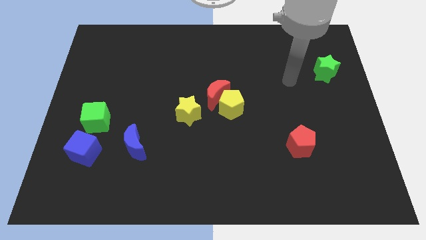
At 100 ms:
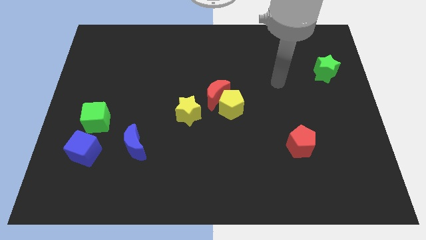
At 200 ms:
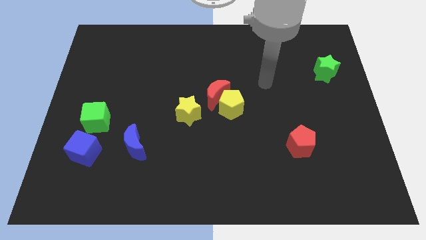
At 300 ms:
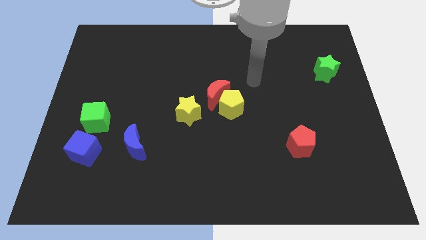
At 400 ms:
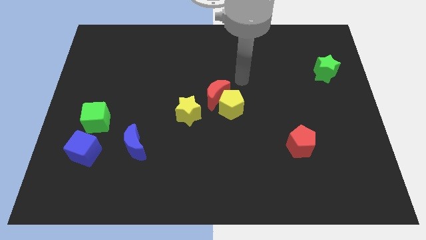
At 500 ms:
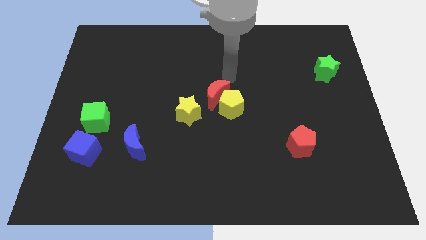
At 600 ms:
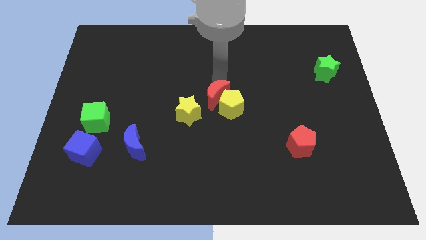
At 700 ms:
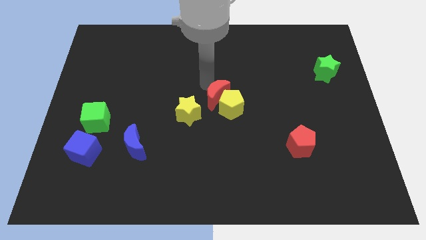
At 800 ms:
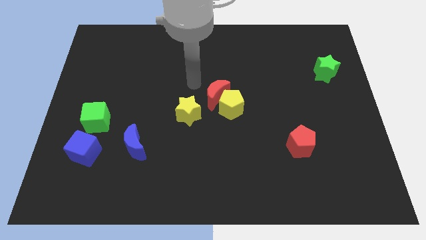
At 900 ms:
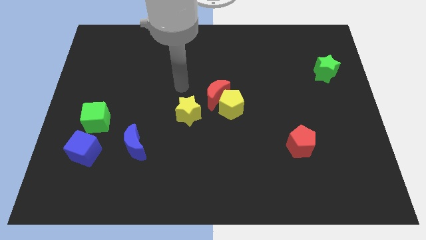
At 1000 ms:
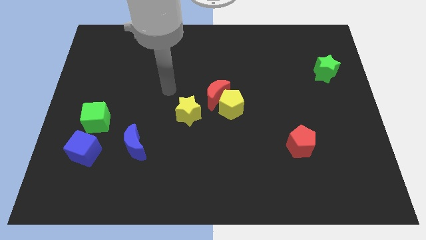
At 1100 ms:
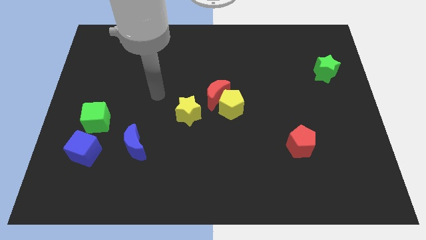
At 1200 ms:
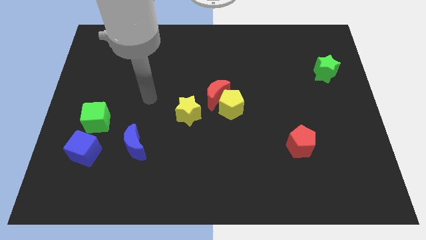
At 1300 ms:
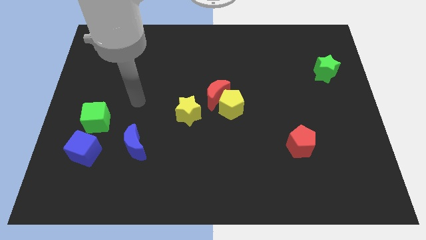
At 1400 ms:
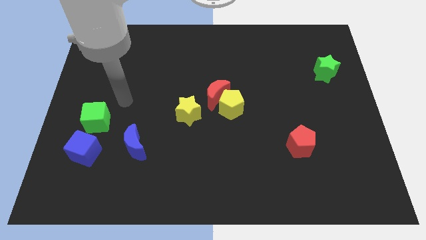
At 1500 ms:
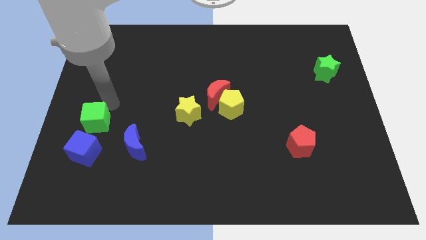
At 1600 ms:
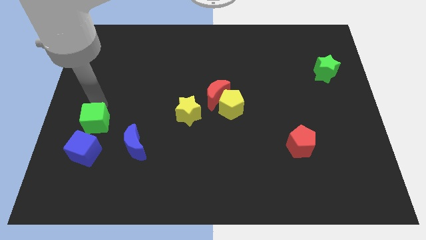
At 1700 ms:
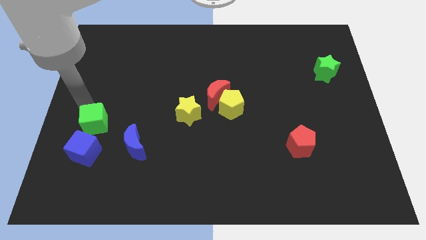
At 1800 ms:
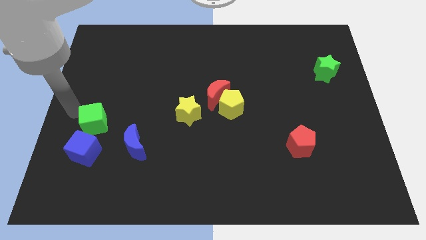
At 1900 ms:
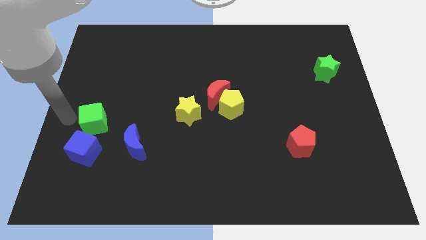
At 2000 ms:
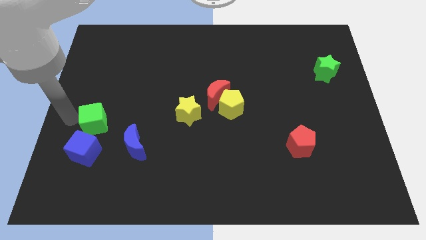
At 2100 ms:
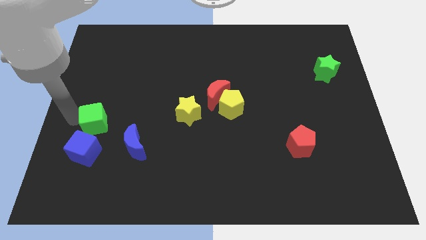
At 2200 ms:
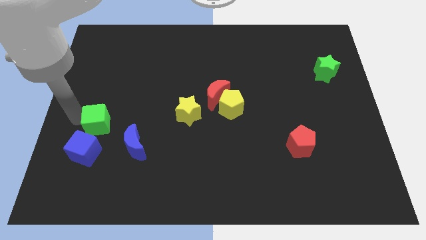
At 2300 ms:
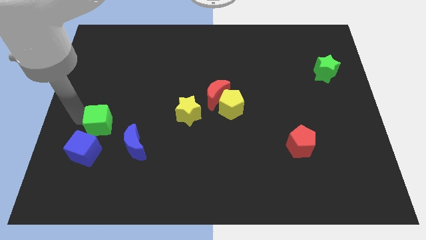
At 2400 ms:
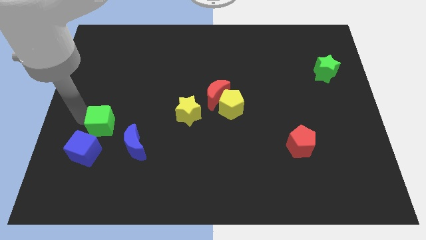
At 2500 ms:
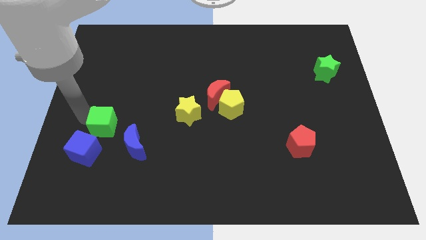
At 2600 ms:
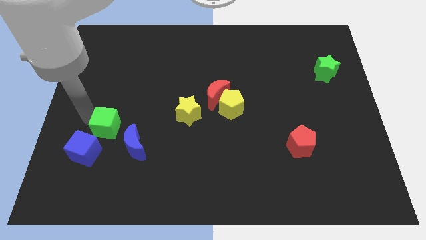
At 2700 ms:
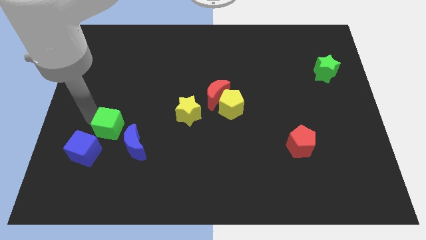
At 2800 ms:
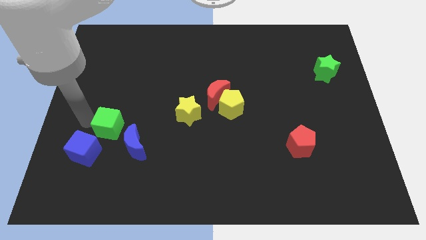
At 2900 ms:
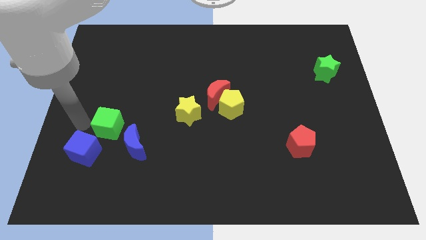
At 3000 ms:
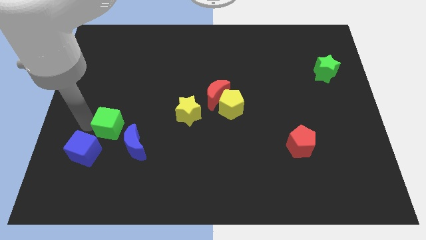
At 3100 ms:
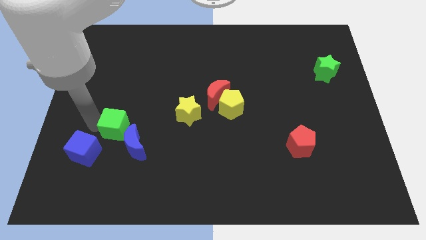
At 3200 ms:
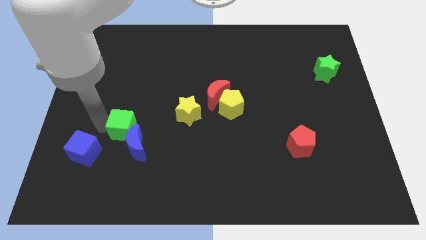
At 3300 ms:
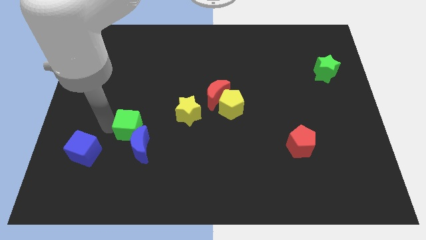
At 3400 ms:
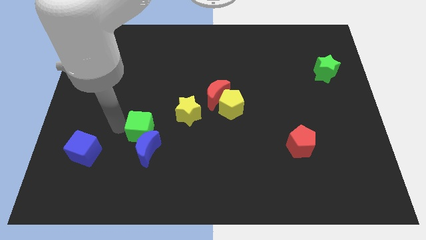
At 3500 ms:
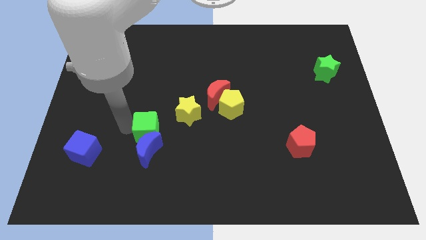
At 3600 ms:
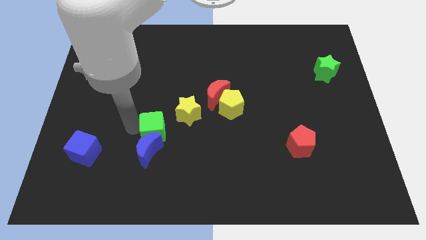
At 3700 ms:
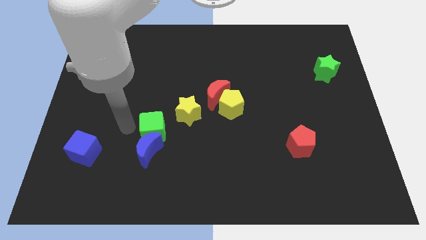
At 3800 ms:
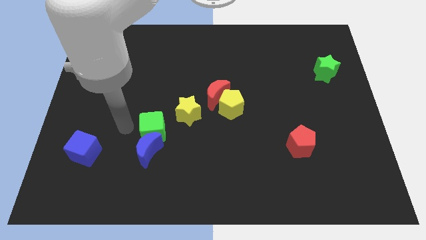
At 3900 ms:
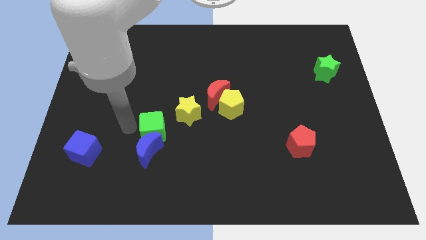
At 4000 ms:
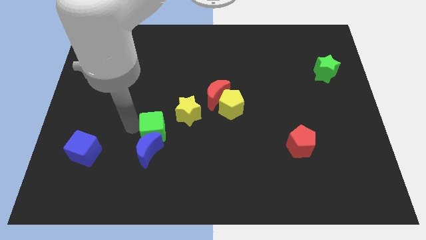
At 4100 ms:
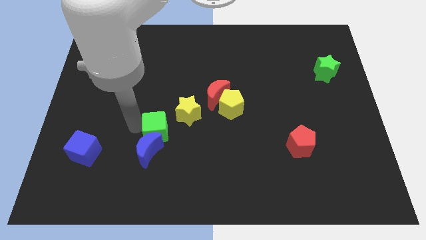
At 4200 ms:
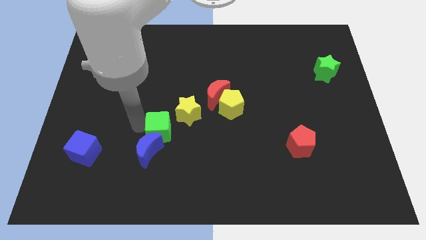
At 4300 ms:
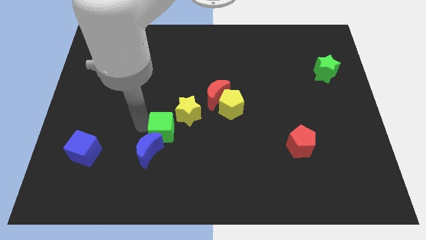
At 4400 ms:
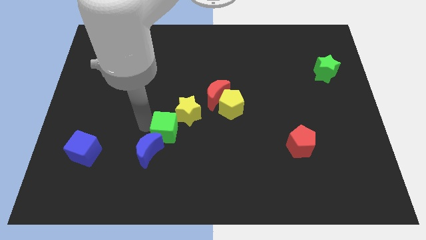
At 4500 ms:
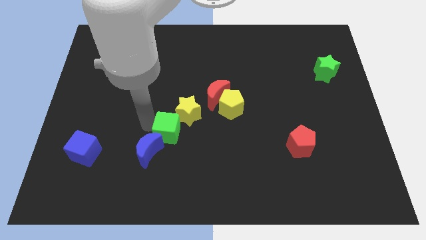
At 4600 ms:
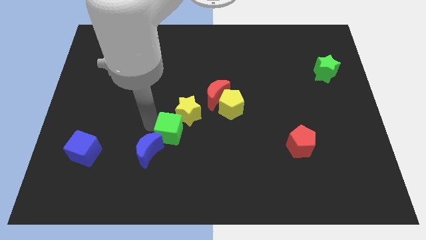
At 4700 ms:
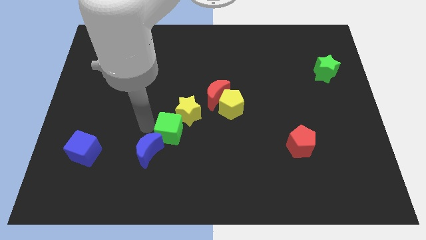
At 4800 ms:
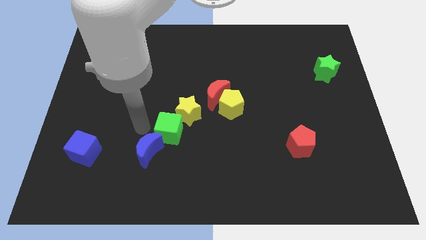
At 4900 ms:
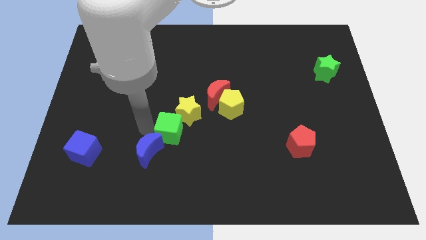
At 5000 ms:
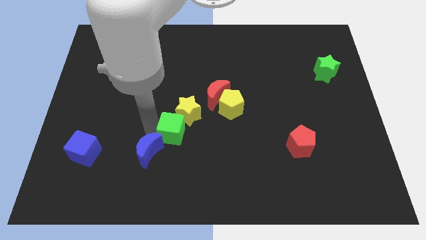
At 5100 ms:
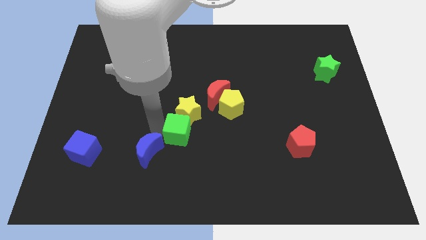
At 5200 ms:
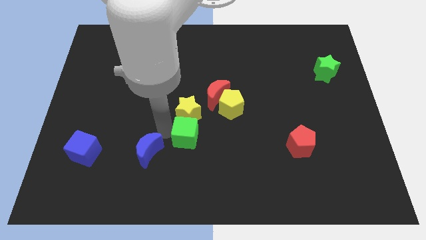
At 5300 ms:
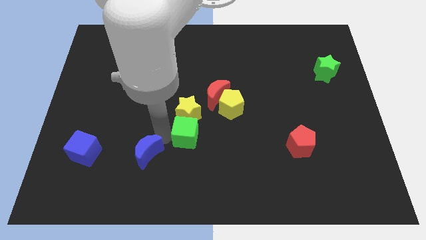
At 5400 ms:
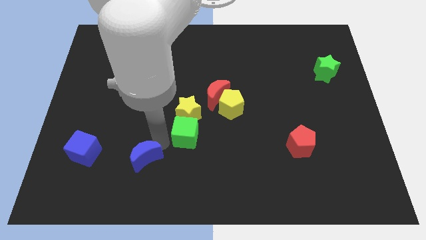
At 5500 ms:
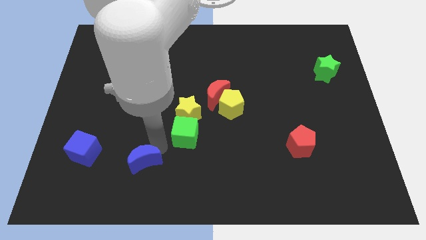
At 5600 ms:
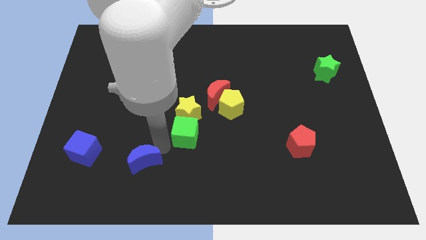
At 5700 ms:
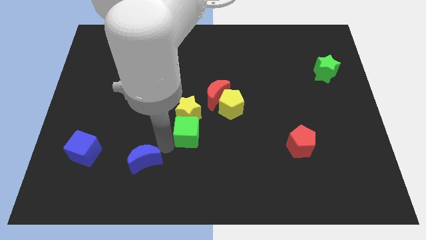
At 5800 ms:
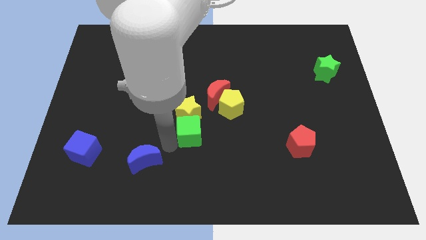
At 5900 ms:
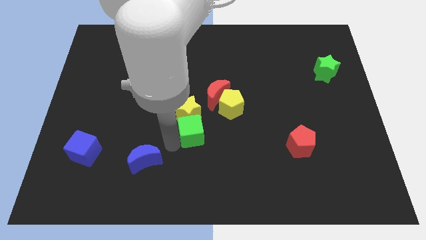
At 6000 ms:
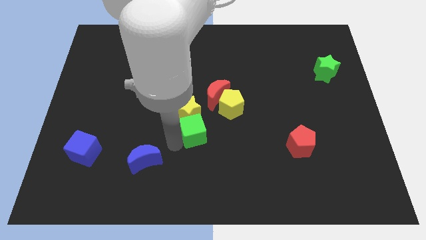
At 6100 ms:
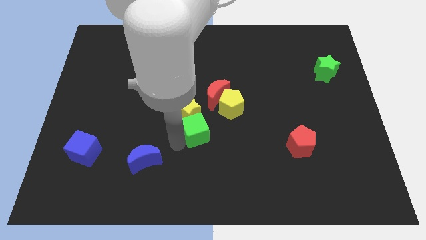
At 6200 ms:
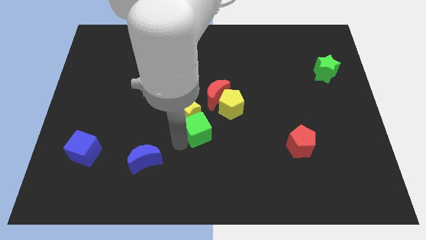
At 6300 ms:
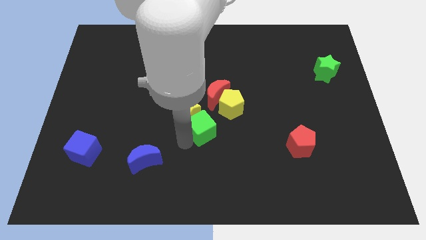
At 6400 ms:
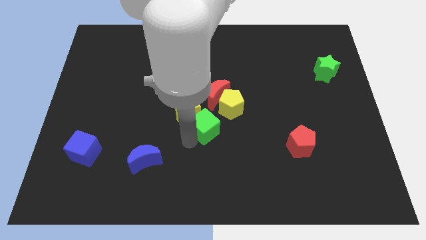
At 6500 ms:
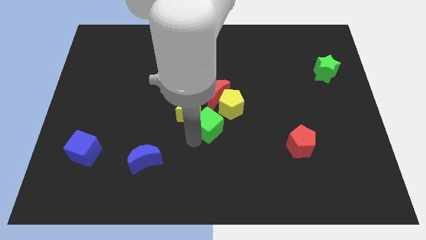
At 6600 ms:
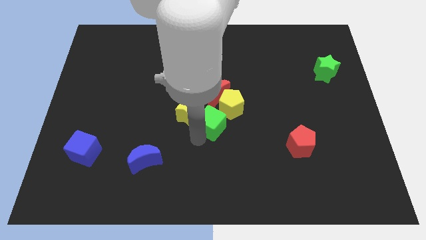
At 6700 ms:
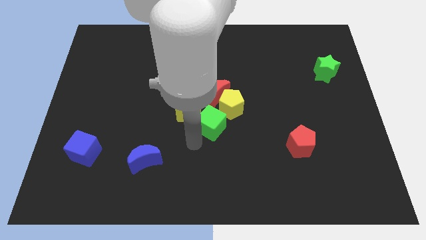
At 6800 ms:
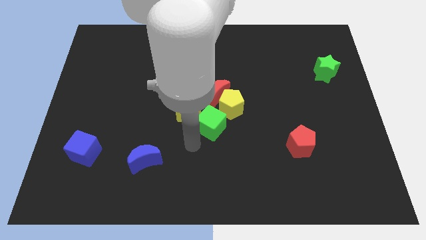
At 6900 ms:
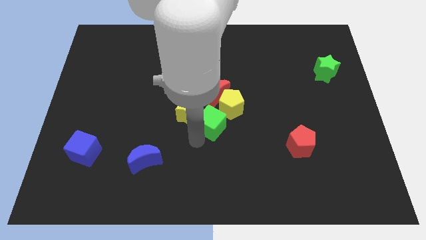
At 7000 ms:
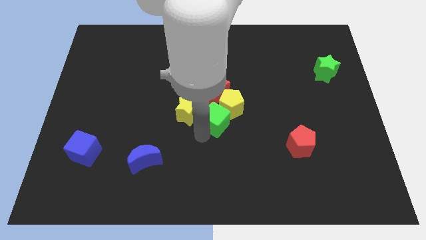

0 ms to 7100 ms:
push the green cube next to the yellow pentagon
